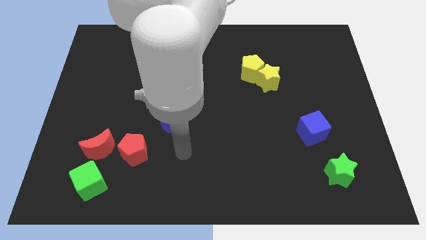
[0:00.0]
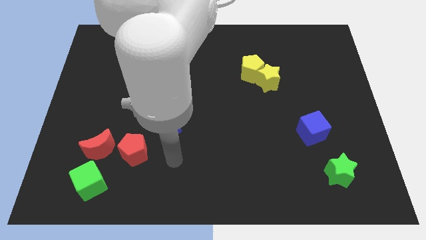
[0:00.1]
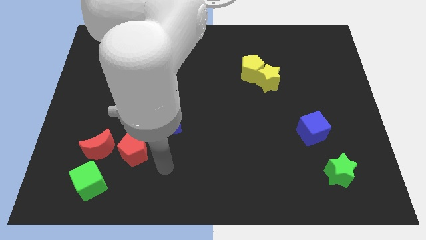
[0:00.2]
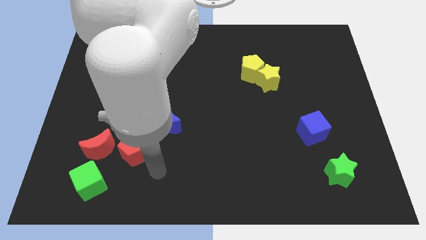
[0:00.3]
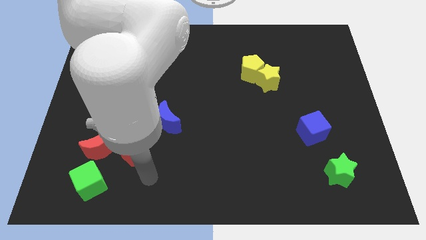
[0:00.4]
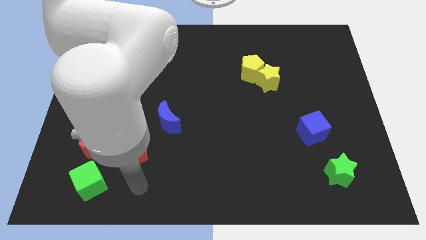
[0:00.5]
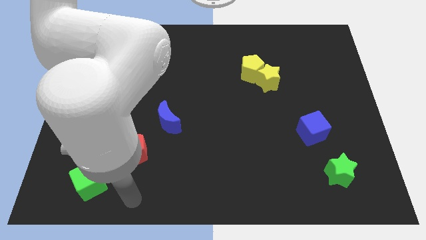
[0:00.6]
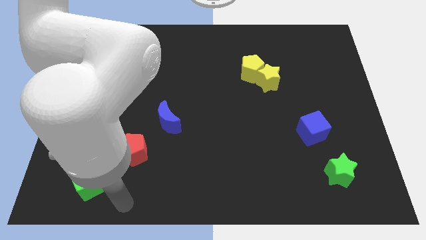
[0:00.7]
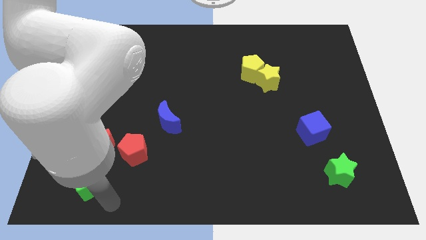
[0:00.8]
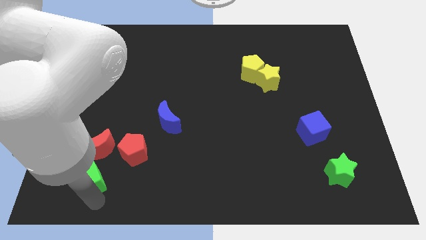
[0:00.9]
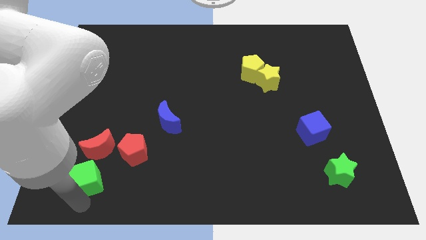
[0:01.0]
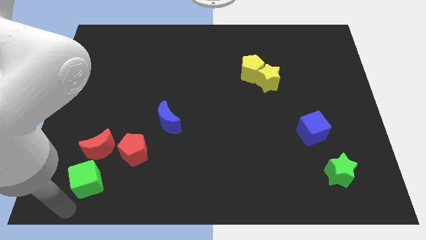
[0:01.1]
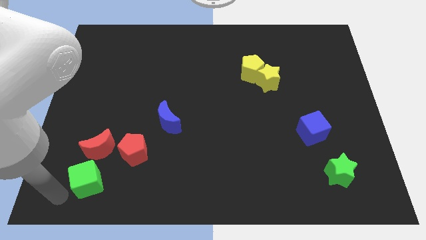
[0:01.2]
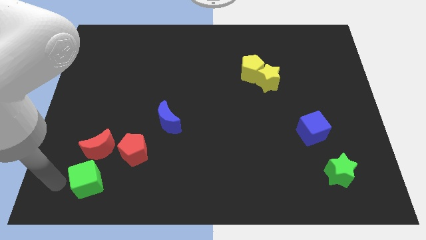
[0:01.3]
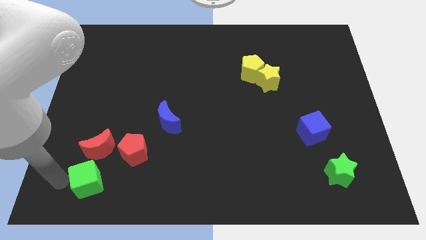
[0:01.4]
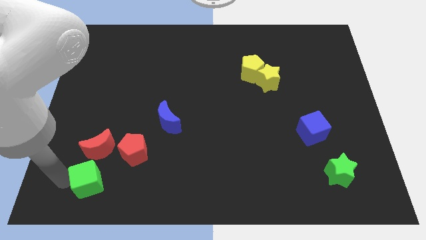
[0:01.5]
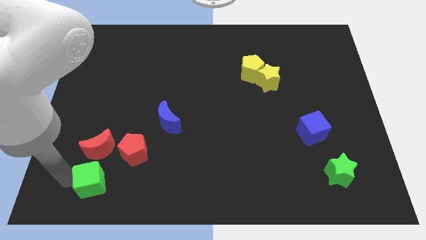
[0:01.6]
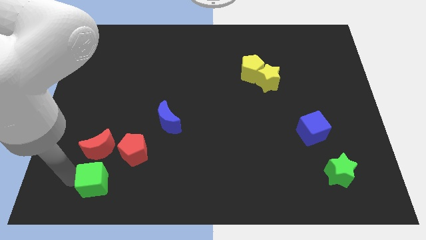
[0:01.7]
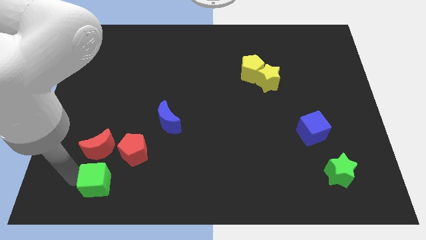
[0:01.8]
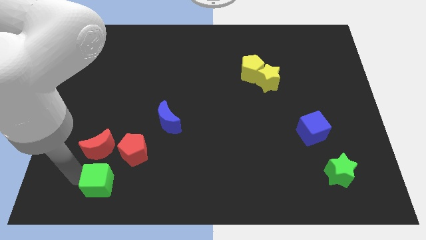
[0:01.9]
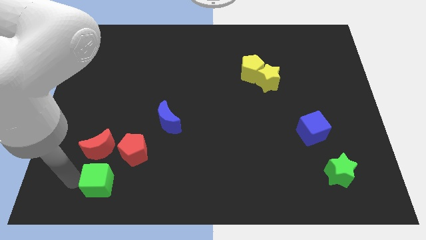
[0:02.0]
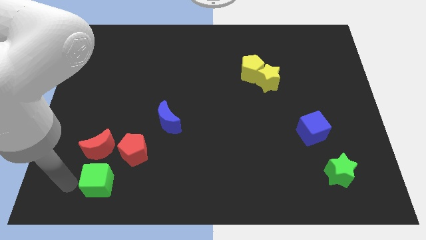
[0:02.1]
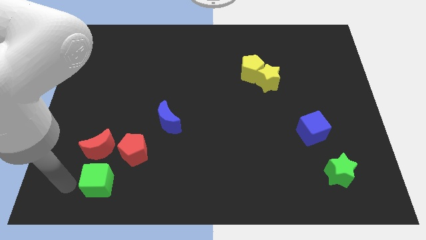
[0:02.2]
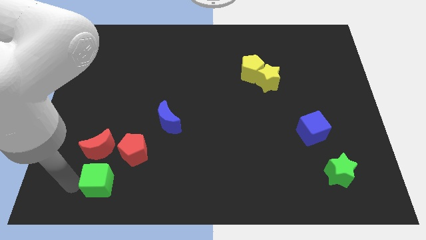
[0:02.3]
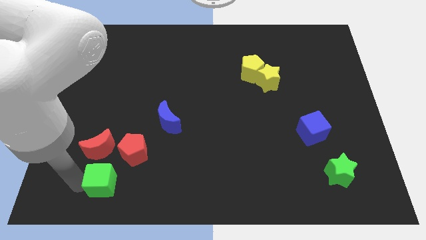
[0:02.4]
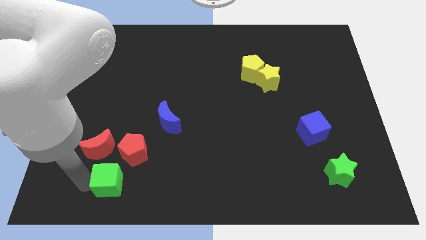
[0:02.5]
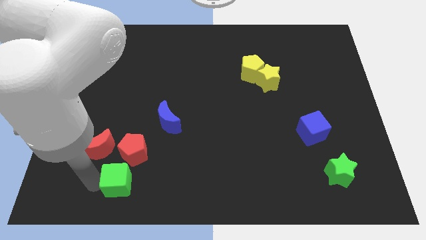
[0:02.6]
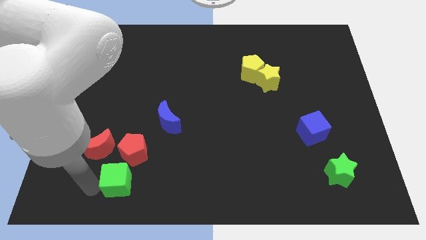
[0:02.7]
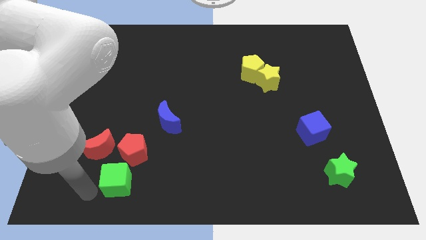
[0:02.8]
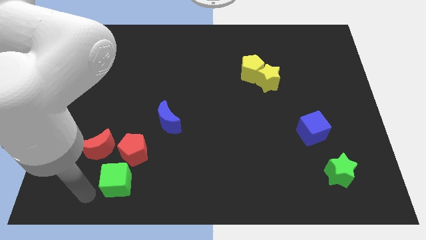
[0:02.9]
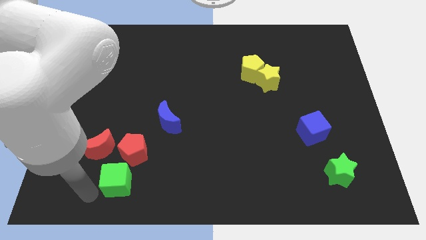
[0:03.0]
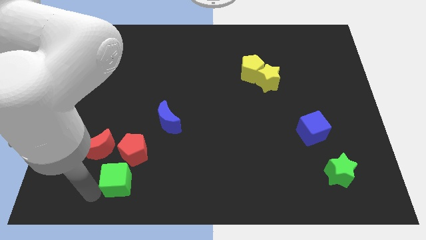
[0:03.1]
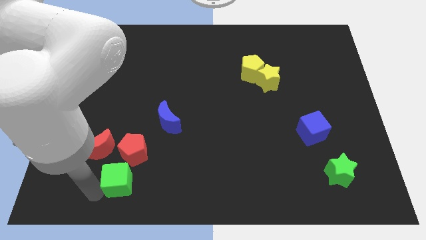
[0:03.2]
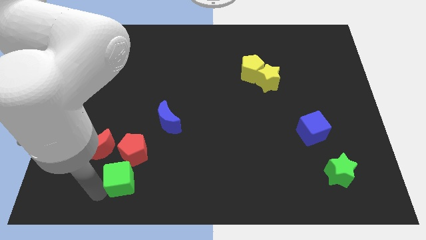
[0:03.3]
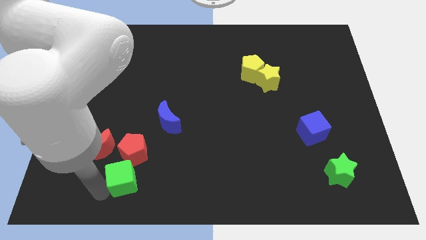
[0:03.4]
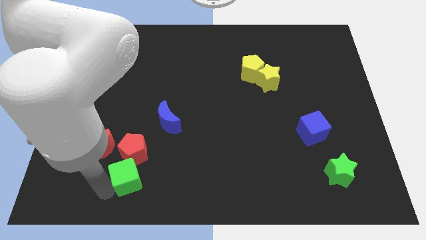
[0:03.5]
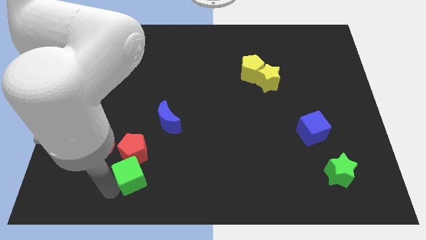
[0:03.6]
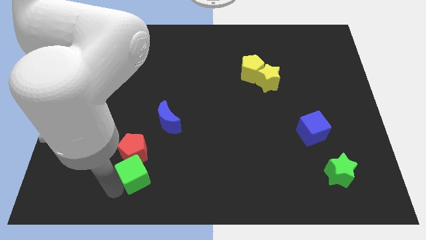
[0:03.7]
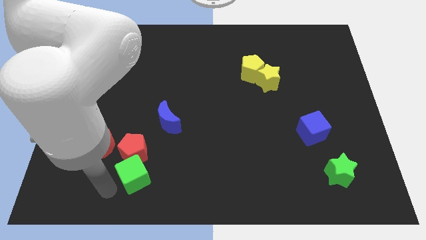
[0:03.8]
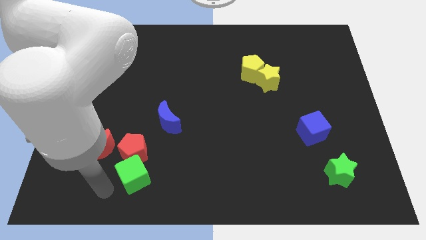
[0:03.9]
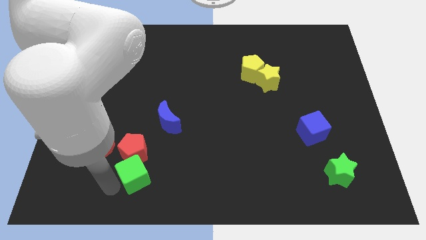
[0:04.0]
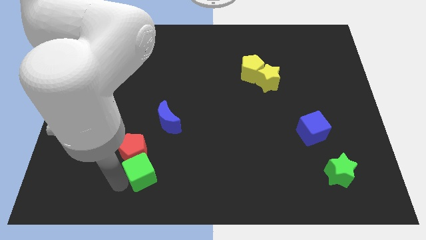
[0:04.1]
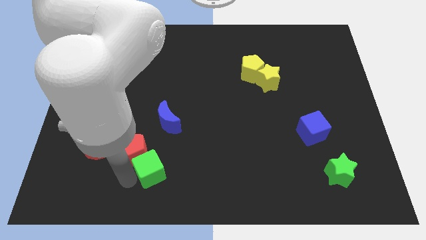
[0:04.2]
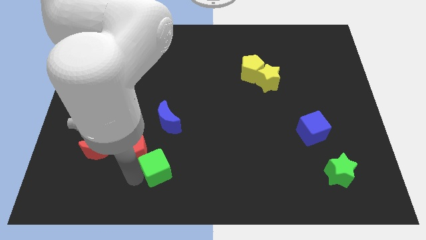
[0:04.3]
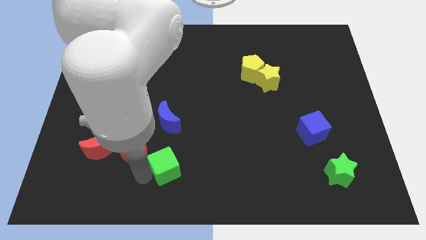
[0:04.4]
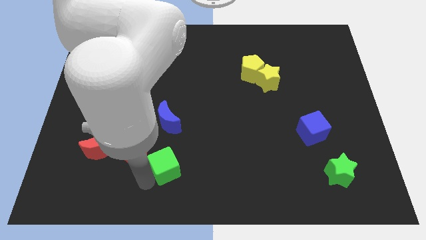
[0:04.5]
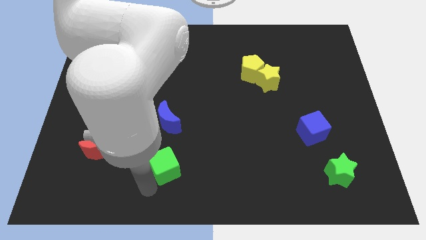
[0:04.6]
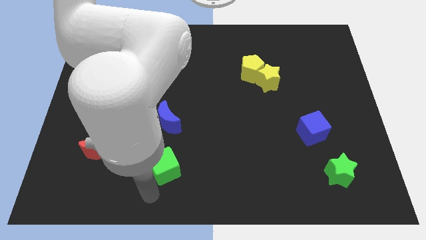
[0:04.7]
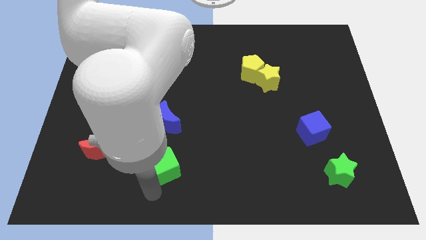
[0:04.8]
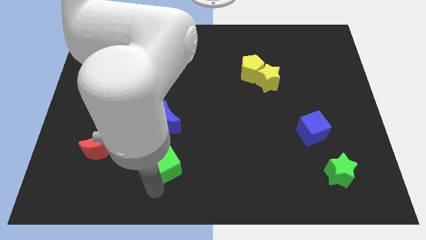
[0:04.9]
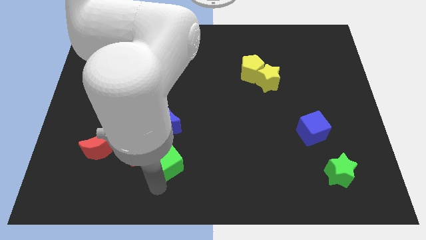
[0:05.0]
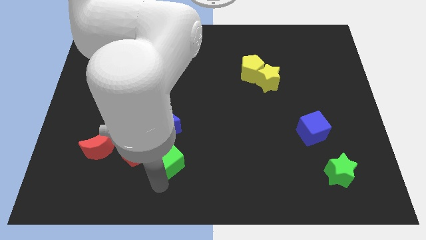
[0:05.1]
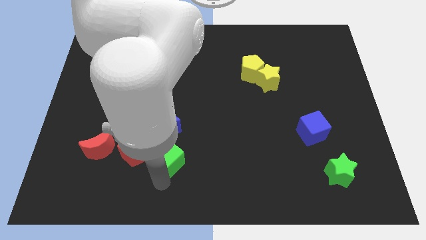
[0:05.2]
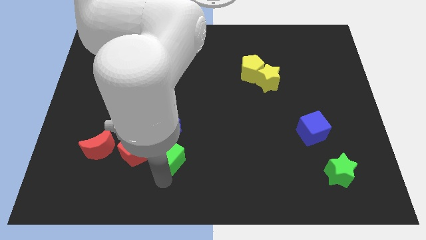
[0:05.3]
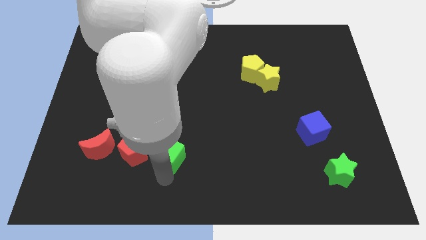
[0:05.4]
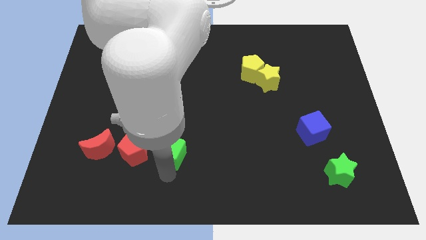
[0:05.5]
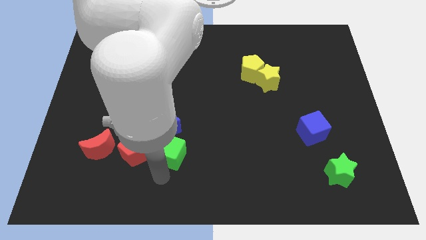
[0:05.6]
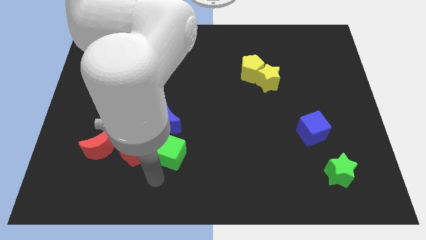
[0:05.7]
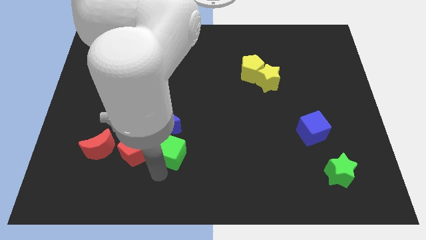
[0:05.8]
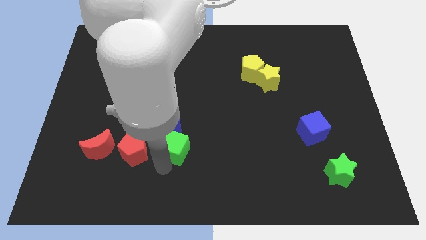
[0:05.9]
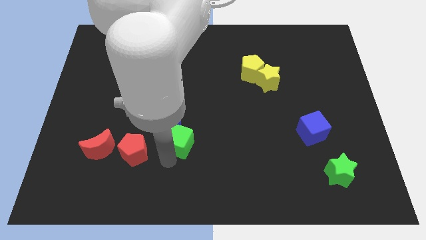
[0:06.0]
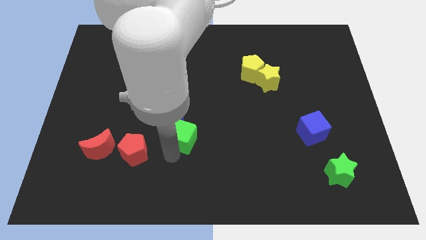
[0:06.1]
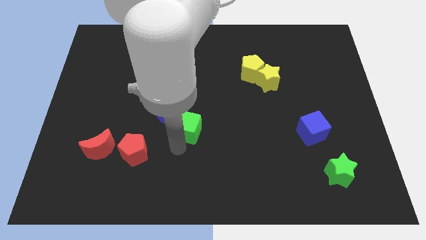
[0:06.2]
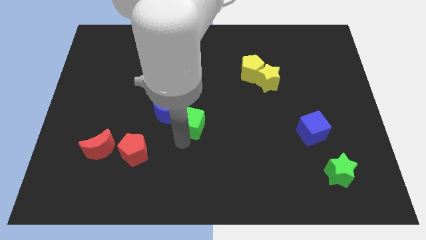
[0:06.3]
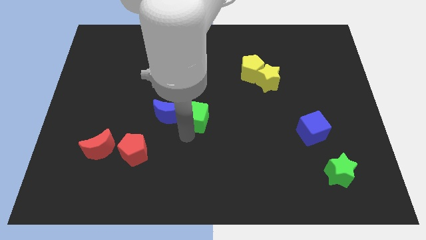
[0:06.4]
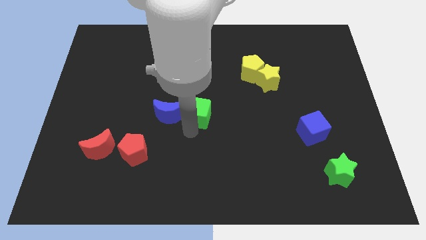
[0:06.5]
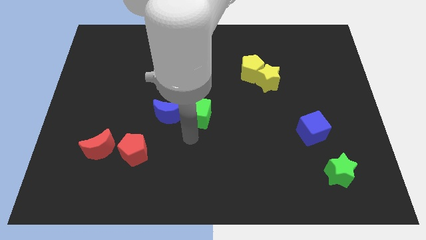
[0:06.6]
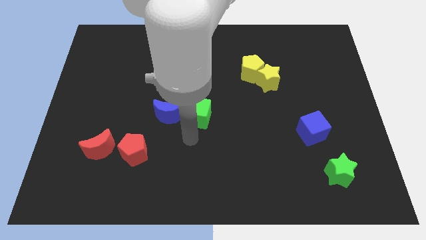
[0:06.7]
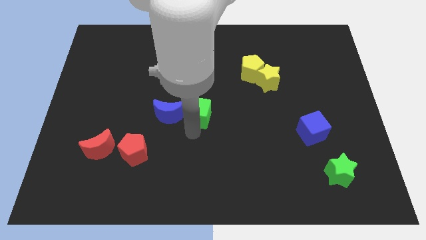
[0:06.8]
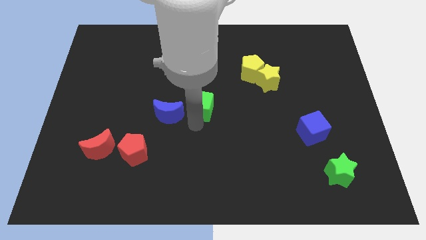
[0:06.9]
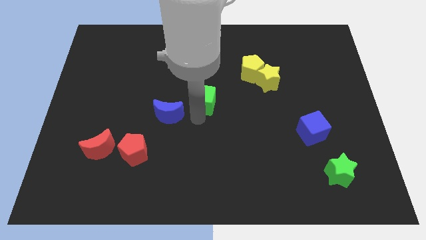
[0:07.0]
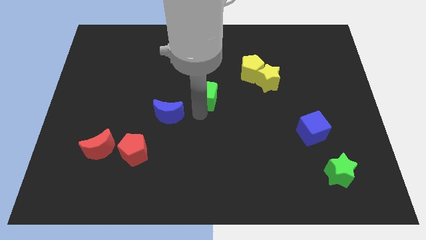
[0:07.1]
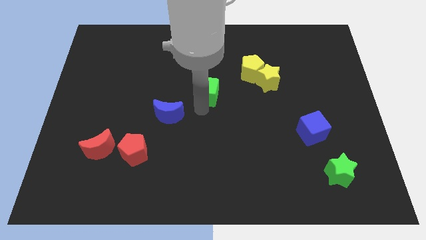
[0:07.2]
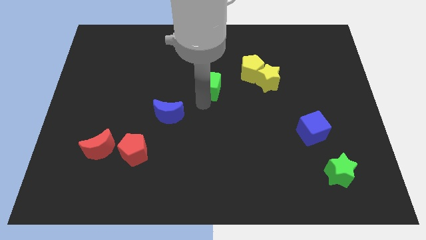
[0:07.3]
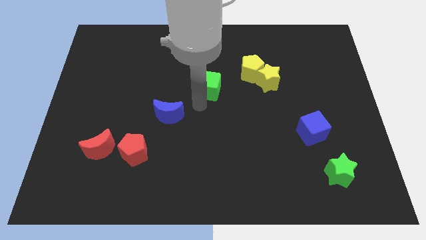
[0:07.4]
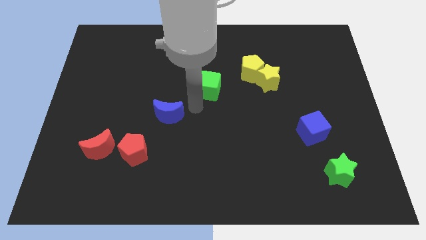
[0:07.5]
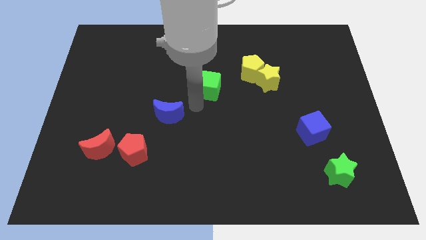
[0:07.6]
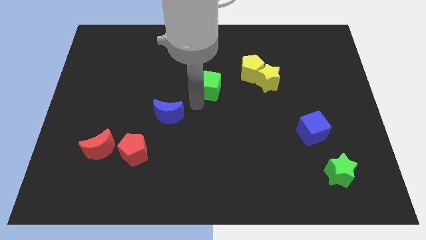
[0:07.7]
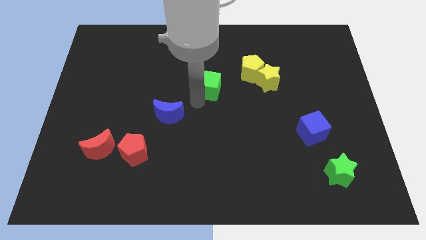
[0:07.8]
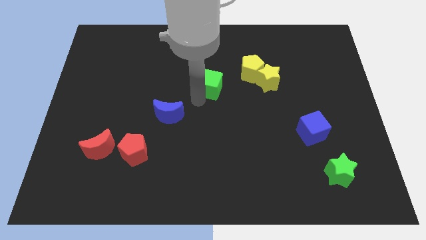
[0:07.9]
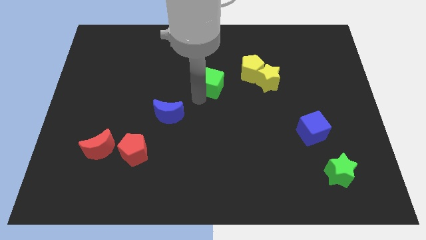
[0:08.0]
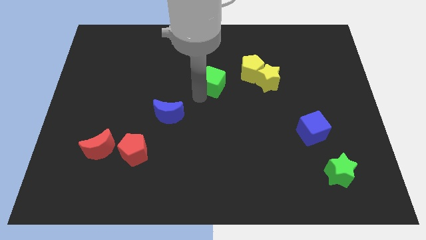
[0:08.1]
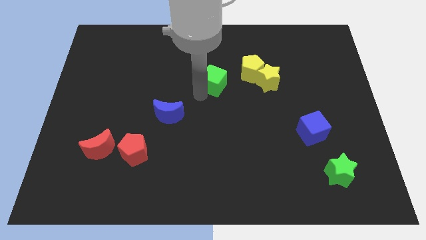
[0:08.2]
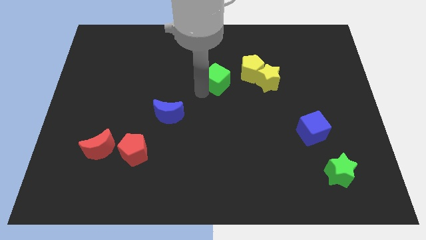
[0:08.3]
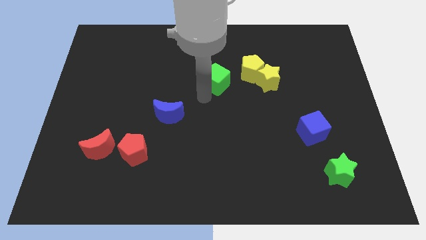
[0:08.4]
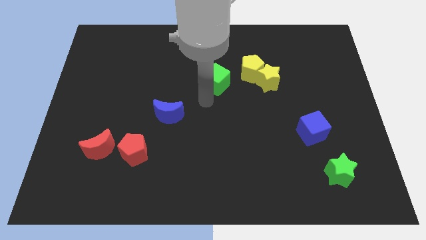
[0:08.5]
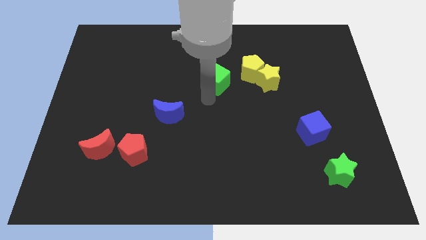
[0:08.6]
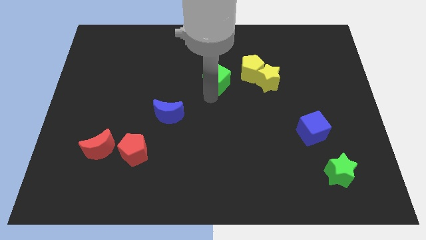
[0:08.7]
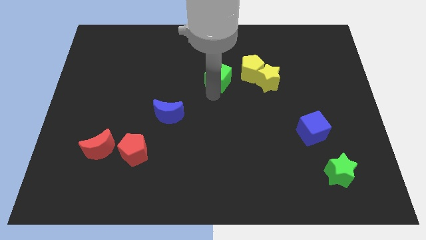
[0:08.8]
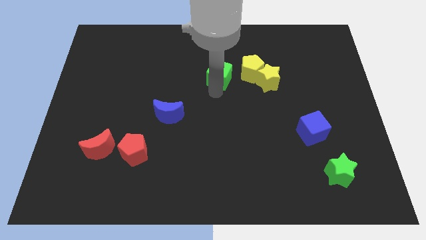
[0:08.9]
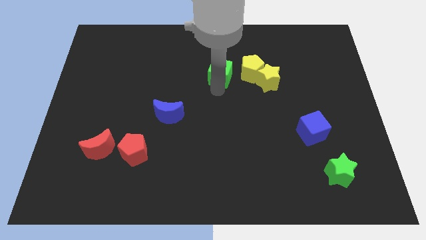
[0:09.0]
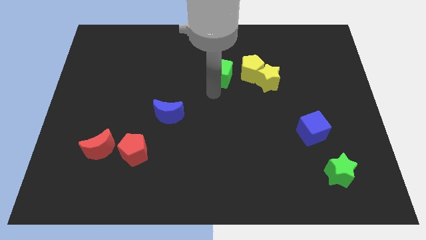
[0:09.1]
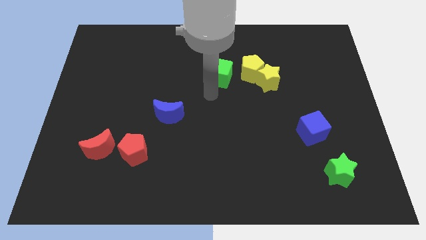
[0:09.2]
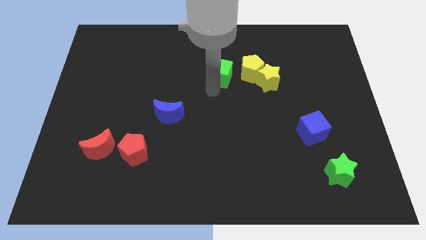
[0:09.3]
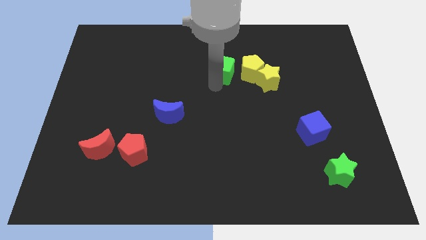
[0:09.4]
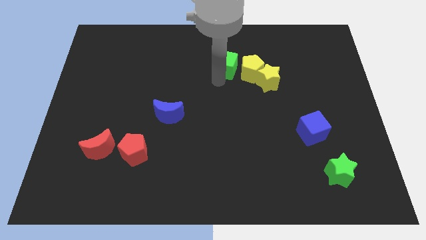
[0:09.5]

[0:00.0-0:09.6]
put the green cube to the top left of the yellow pentagon
